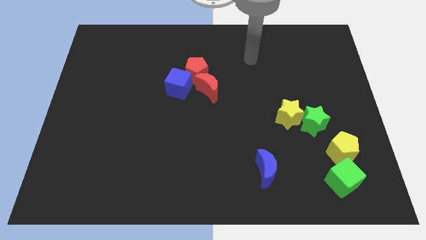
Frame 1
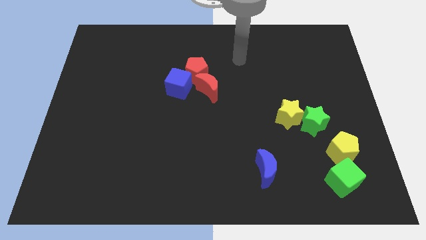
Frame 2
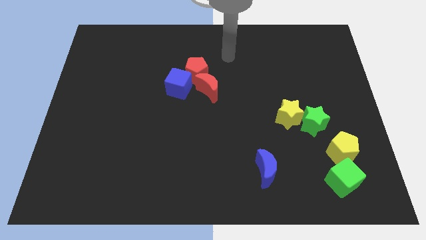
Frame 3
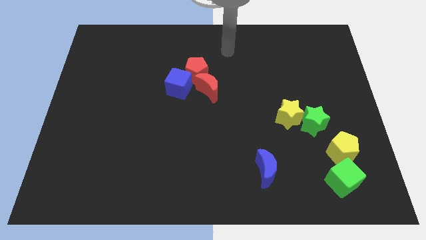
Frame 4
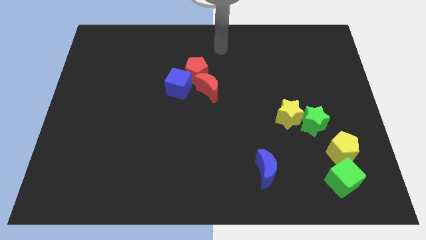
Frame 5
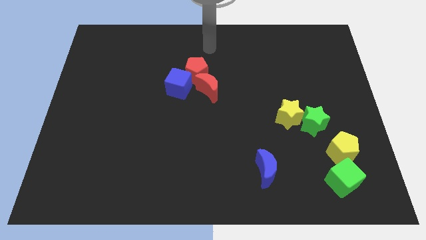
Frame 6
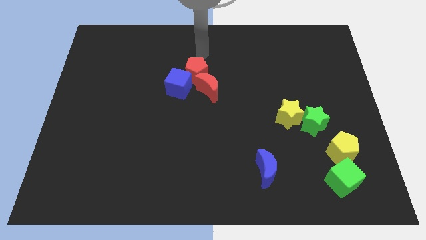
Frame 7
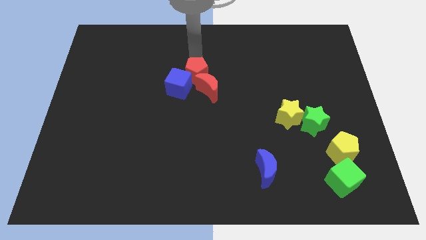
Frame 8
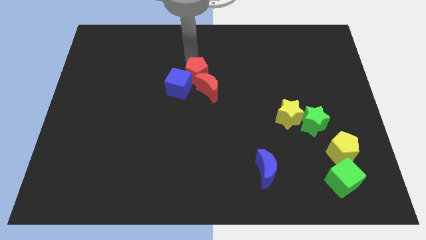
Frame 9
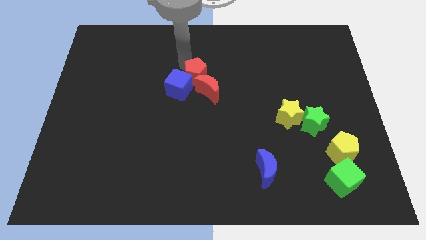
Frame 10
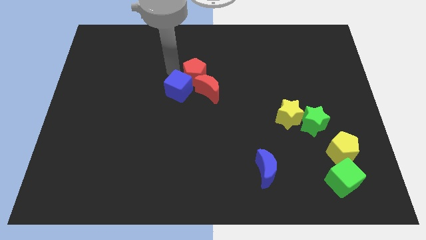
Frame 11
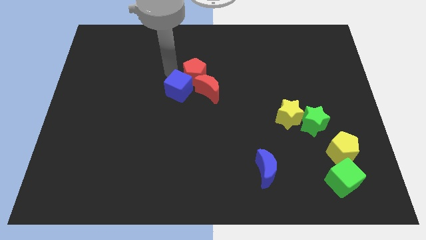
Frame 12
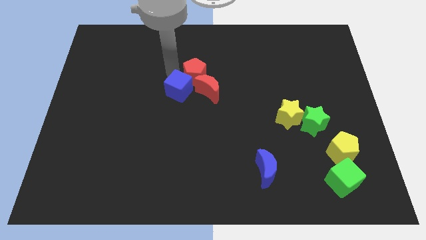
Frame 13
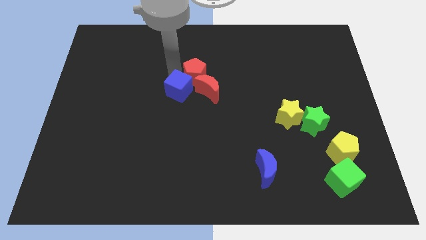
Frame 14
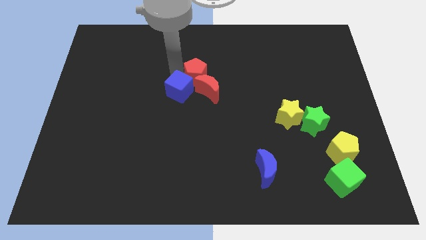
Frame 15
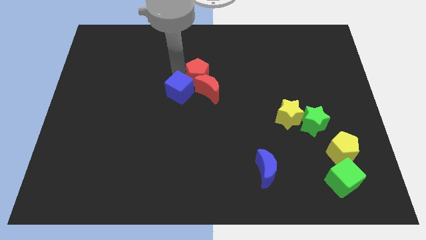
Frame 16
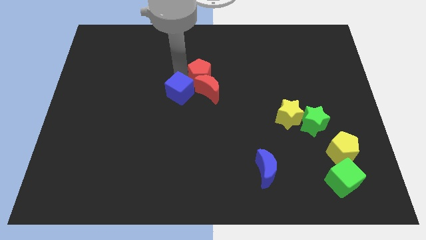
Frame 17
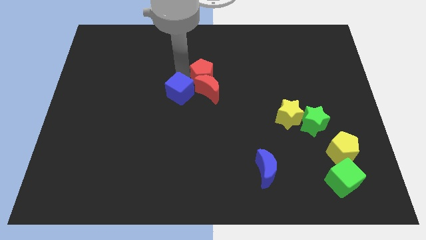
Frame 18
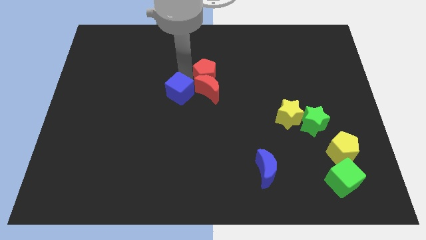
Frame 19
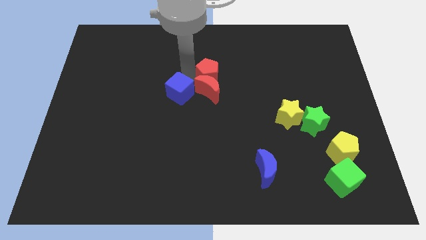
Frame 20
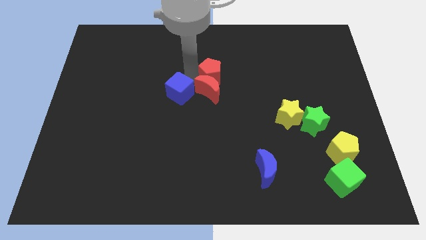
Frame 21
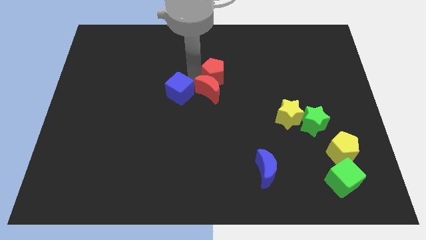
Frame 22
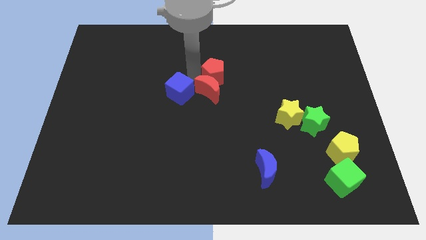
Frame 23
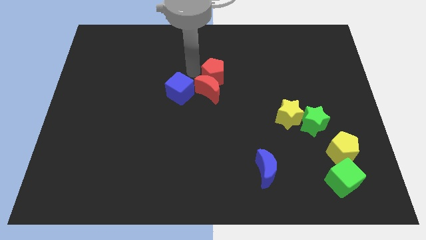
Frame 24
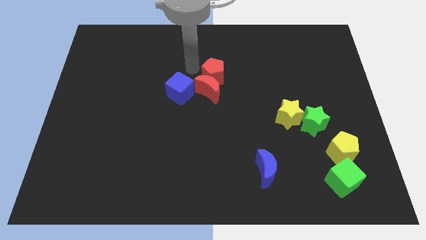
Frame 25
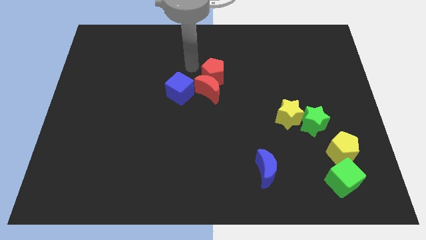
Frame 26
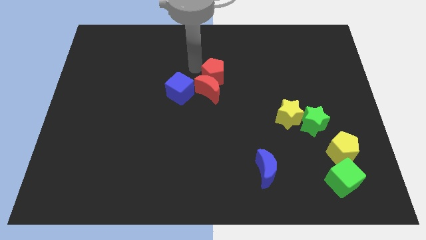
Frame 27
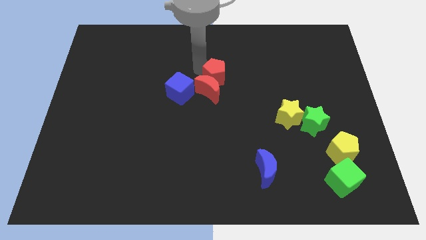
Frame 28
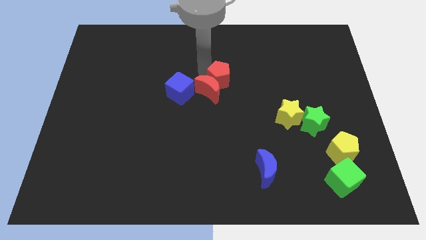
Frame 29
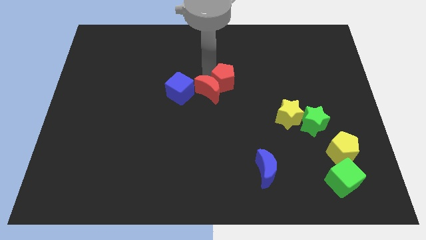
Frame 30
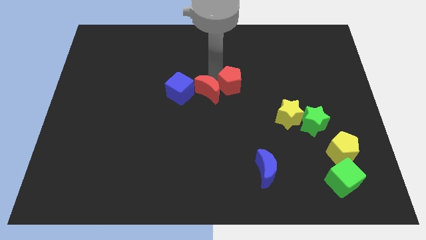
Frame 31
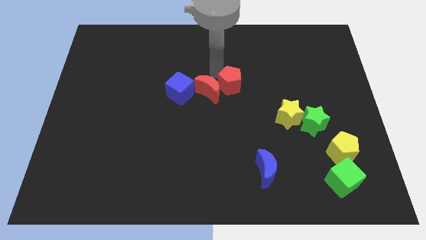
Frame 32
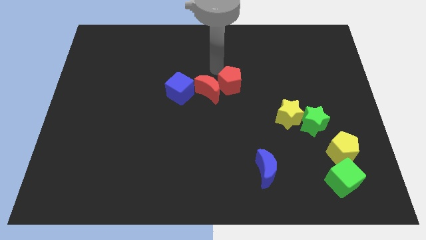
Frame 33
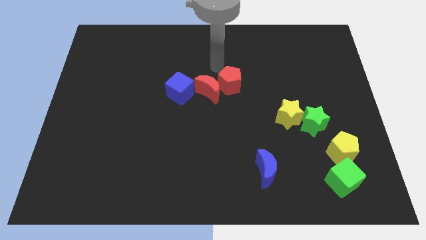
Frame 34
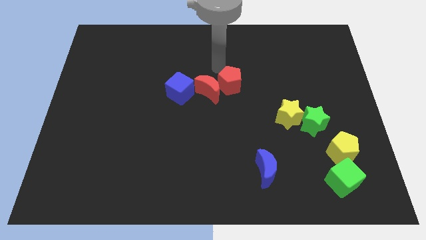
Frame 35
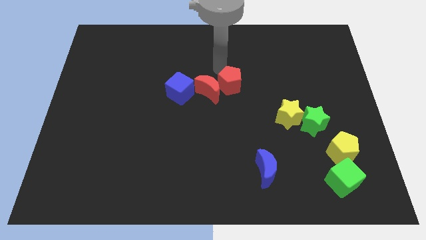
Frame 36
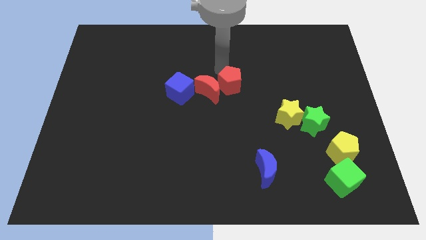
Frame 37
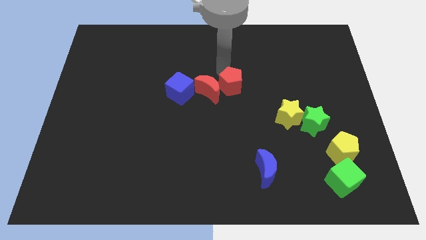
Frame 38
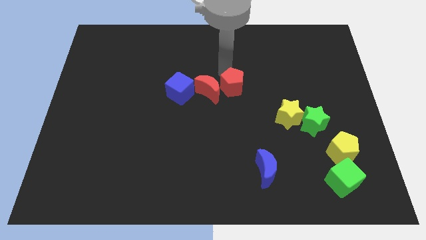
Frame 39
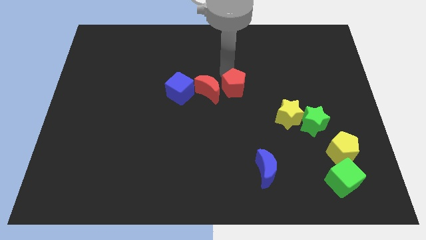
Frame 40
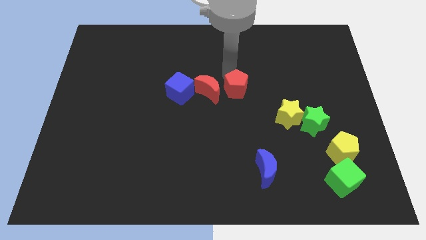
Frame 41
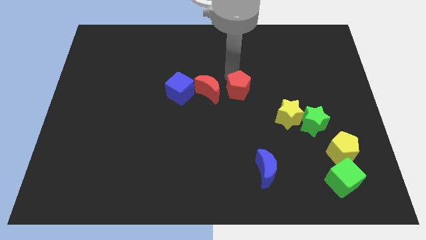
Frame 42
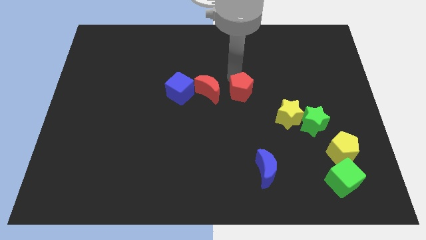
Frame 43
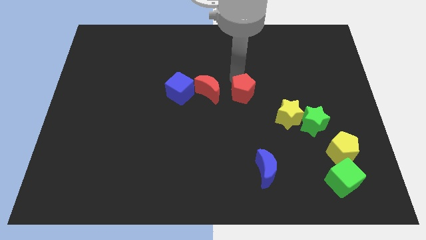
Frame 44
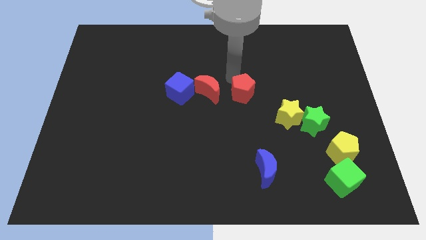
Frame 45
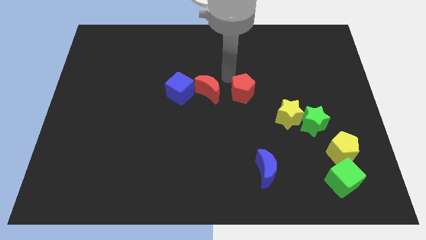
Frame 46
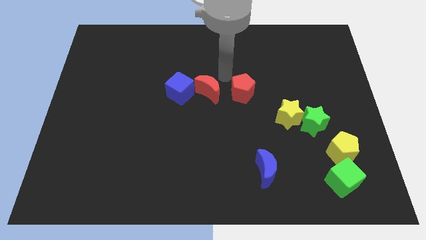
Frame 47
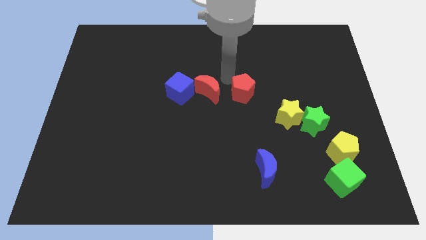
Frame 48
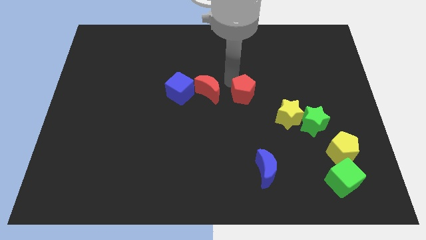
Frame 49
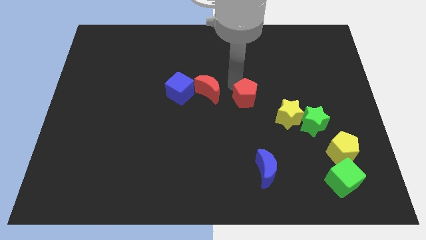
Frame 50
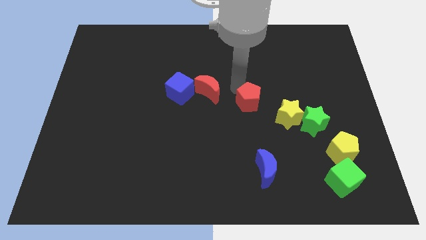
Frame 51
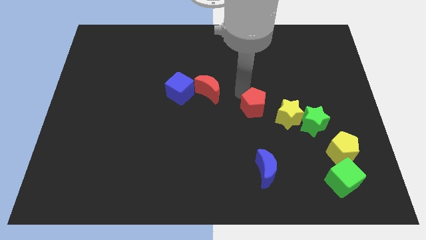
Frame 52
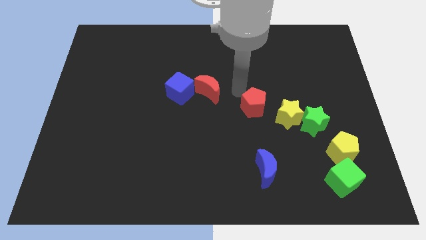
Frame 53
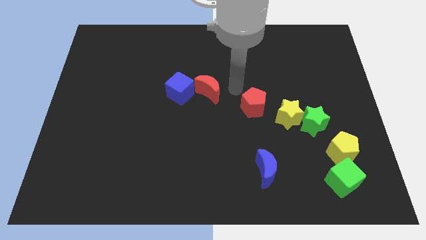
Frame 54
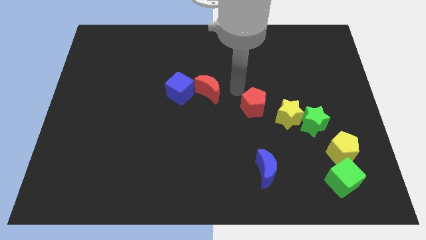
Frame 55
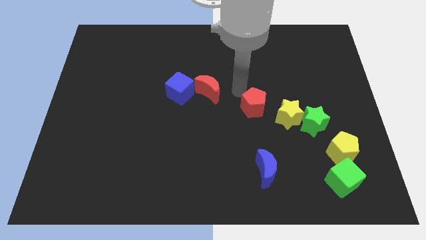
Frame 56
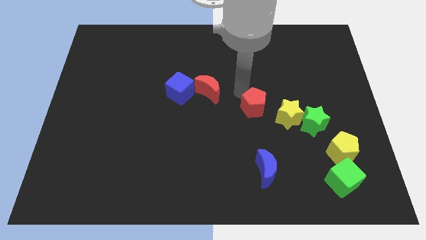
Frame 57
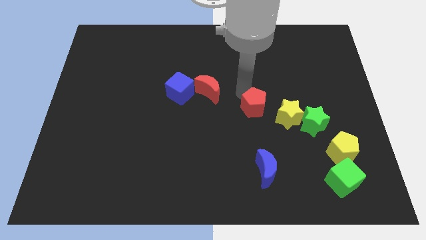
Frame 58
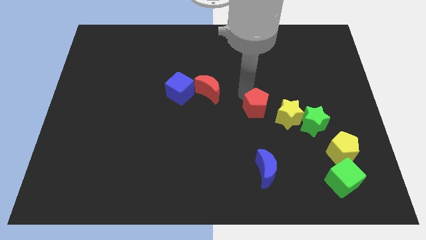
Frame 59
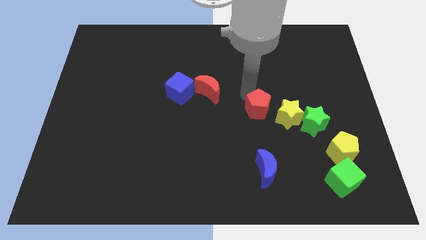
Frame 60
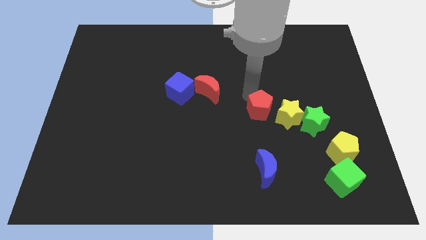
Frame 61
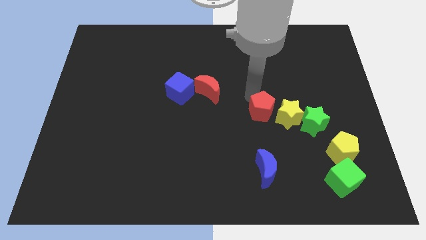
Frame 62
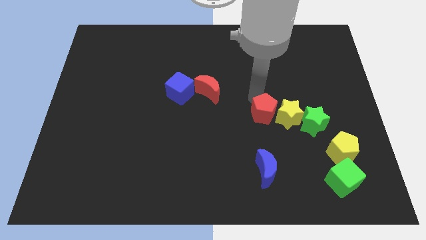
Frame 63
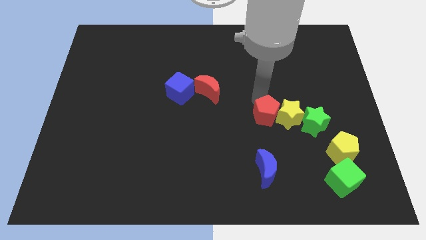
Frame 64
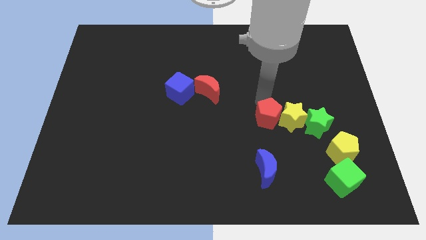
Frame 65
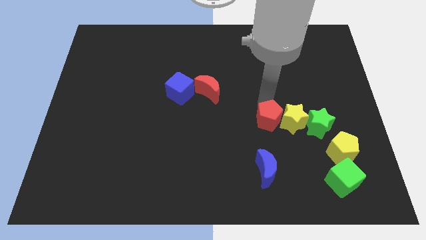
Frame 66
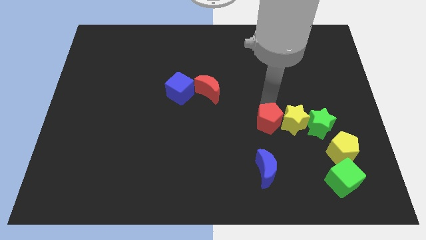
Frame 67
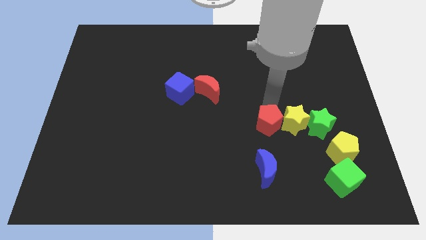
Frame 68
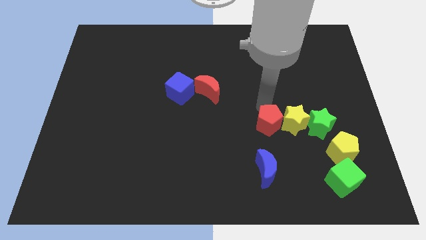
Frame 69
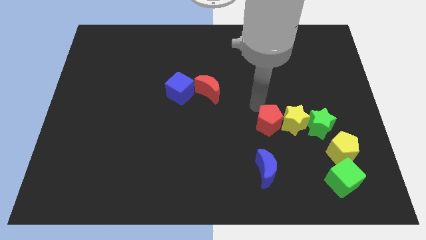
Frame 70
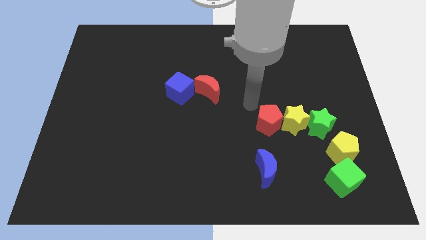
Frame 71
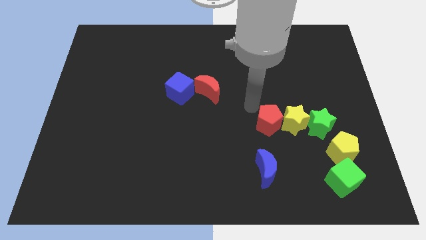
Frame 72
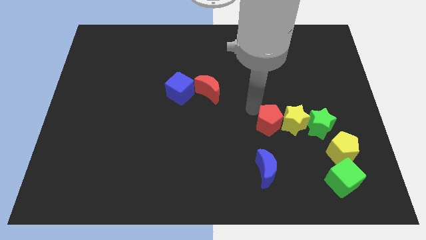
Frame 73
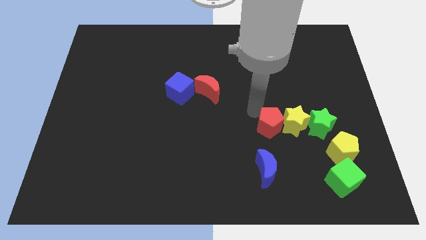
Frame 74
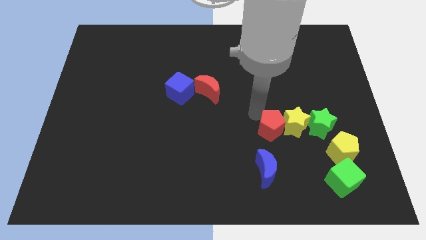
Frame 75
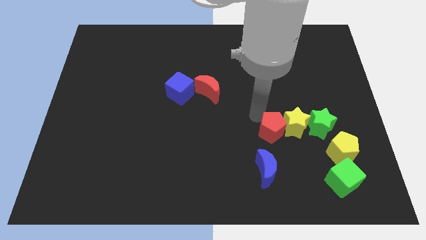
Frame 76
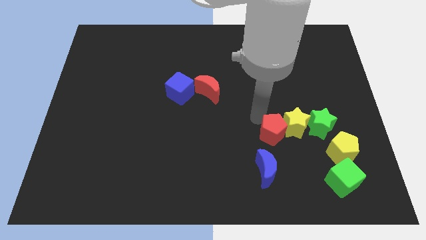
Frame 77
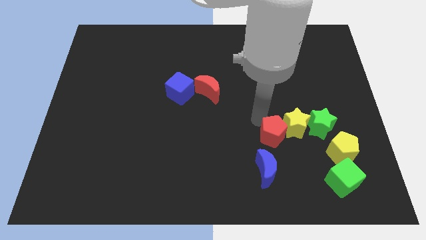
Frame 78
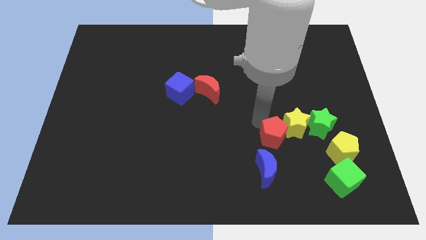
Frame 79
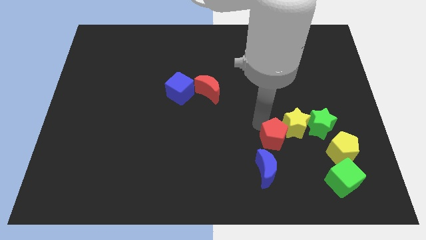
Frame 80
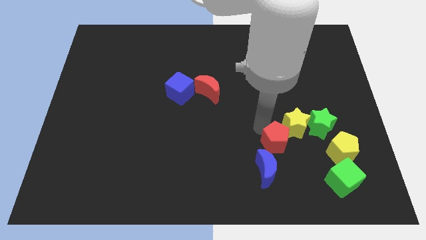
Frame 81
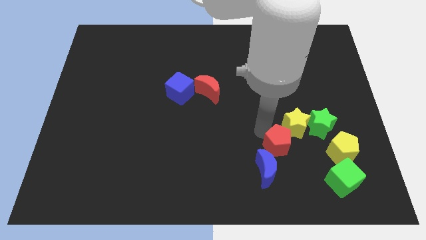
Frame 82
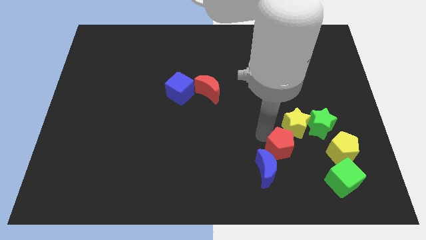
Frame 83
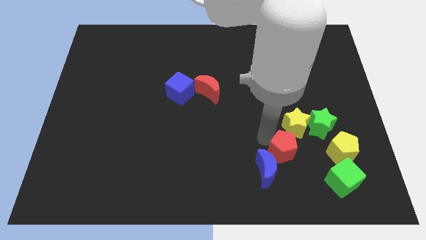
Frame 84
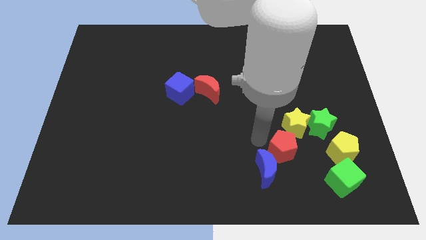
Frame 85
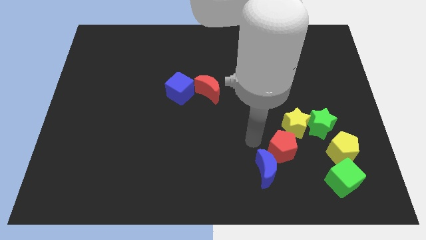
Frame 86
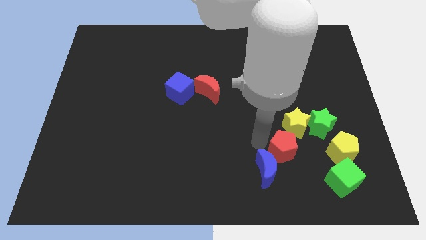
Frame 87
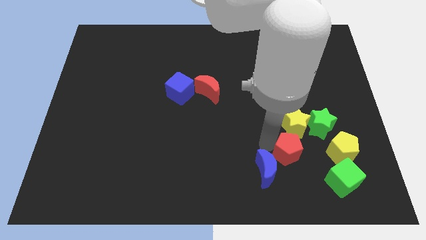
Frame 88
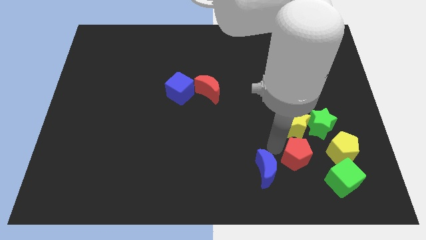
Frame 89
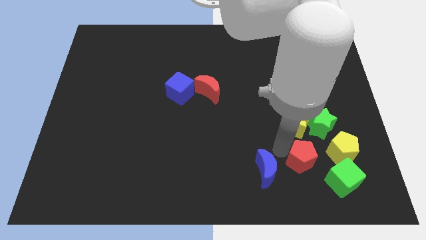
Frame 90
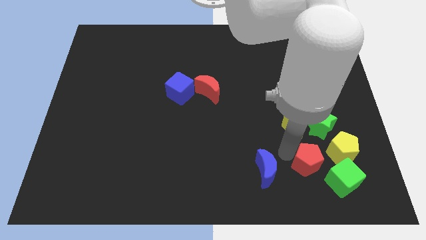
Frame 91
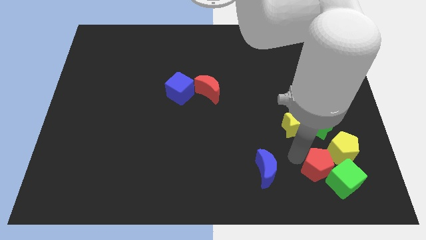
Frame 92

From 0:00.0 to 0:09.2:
move the red pentagon towards the green cube
